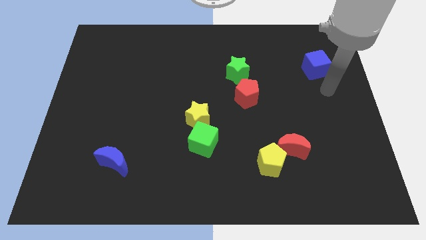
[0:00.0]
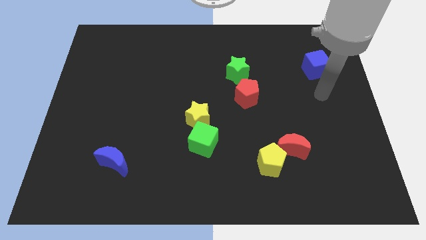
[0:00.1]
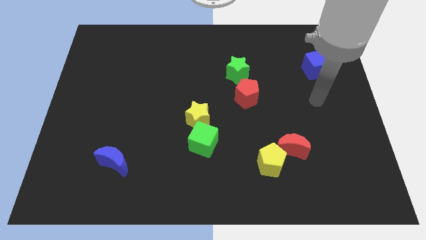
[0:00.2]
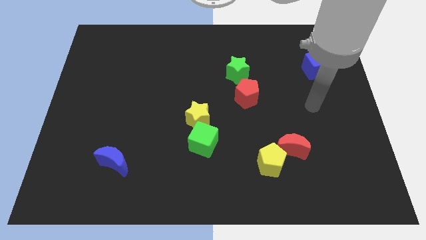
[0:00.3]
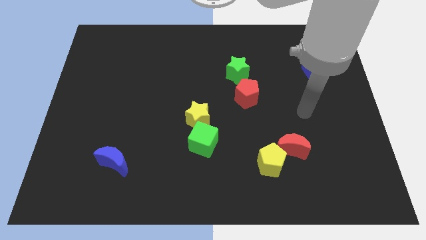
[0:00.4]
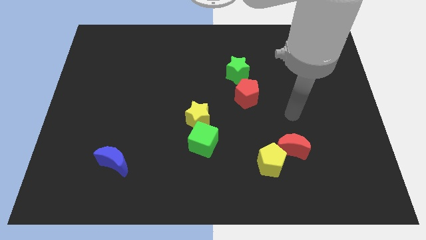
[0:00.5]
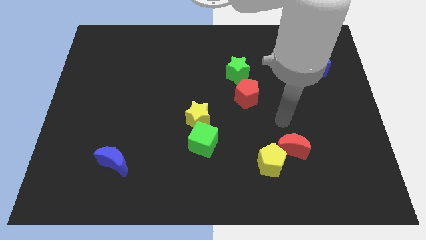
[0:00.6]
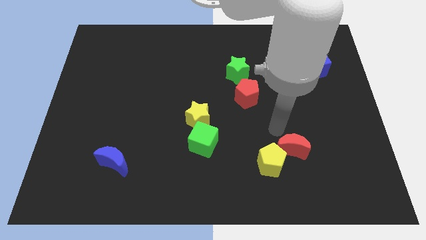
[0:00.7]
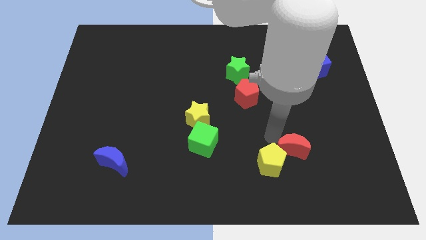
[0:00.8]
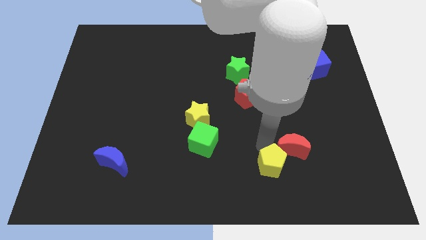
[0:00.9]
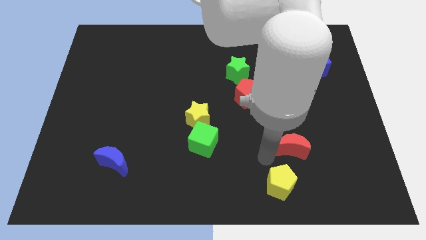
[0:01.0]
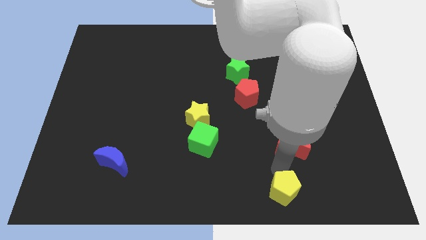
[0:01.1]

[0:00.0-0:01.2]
separate the red moon from the yellow pentagon

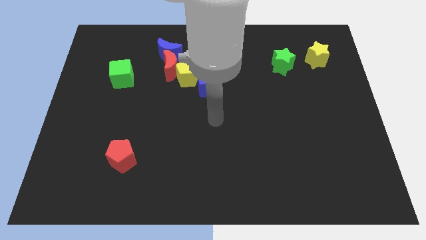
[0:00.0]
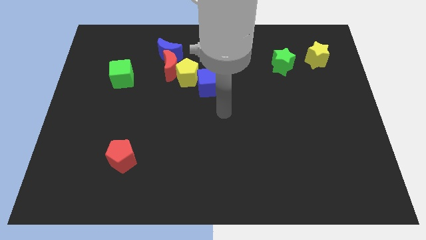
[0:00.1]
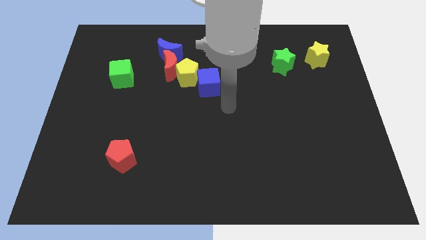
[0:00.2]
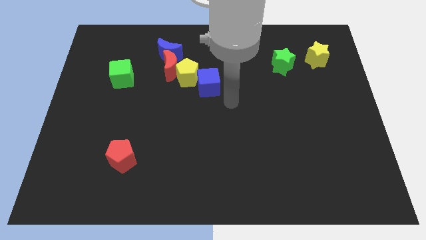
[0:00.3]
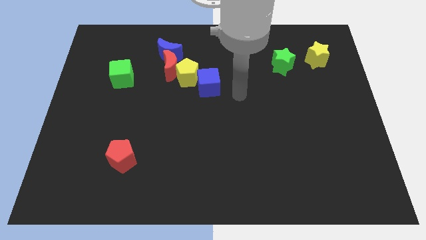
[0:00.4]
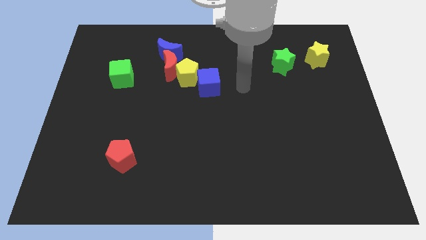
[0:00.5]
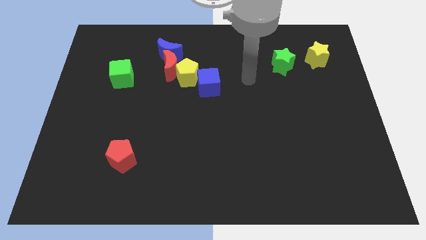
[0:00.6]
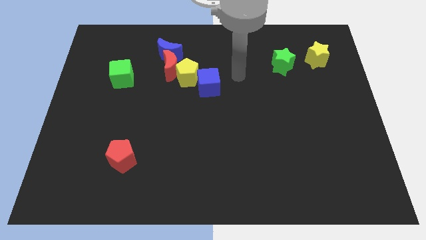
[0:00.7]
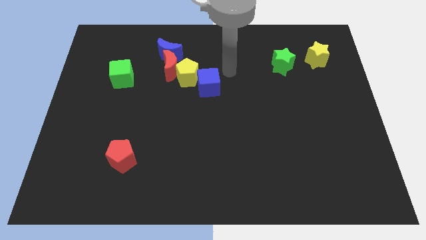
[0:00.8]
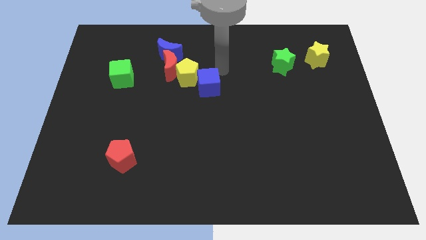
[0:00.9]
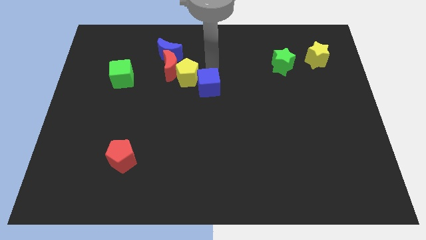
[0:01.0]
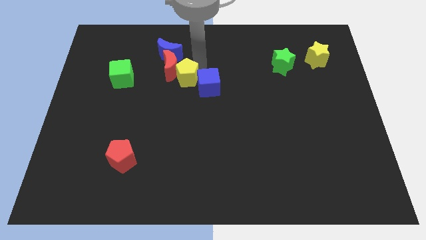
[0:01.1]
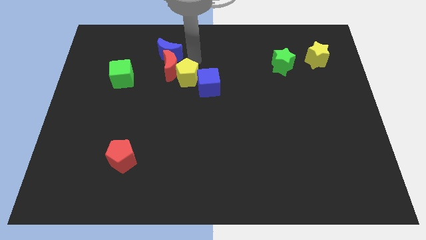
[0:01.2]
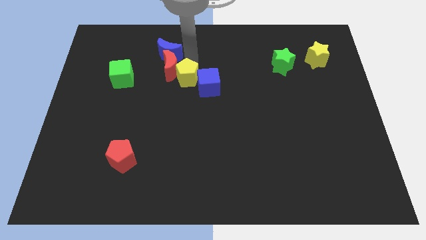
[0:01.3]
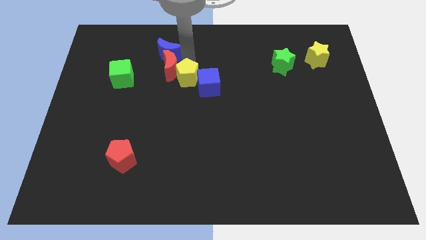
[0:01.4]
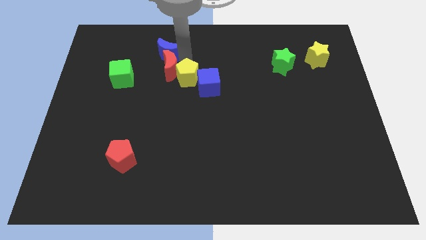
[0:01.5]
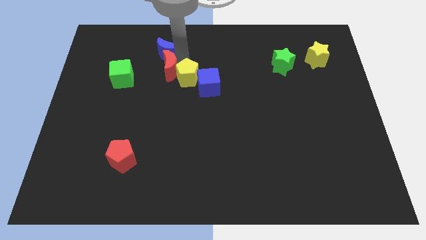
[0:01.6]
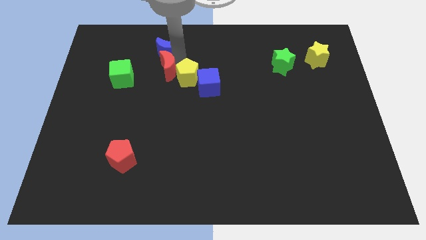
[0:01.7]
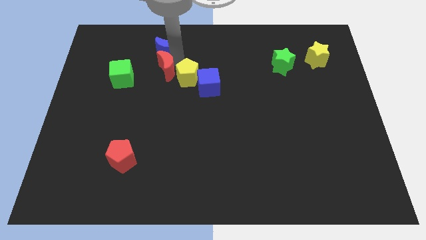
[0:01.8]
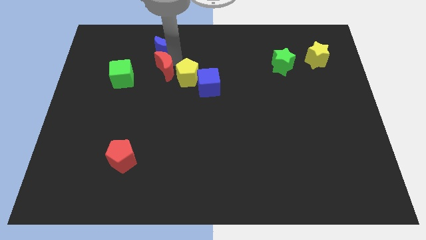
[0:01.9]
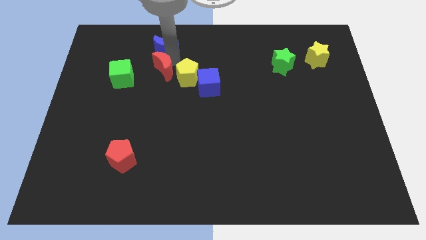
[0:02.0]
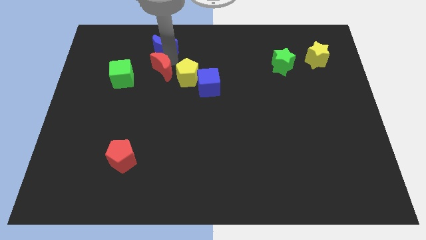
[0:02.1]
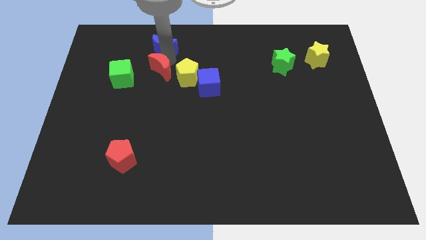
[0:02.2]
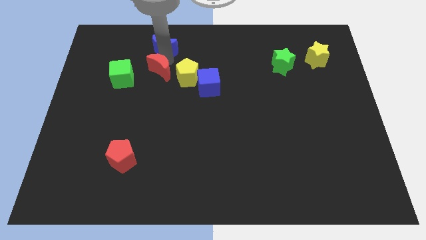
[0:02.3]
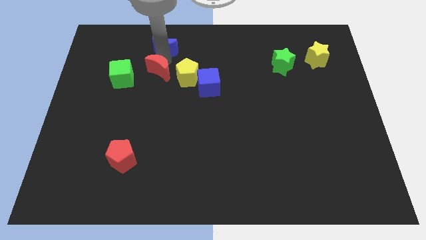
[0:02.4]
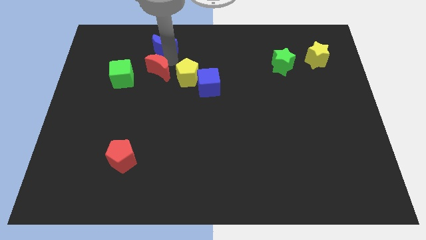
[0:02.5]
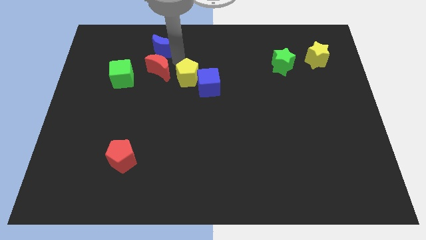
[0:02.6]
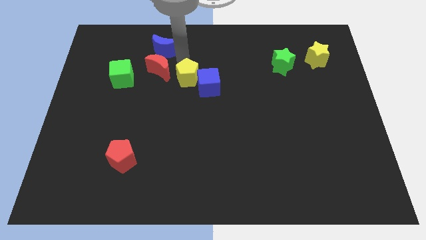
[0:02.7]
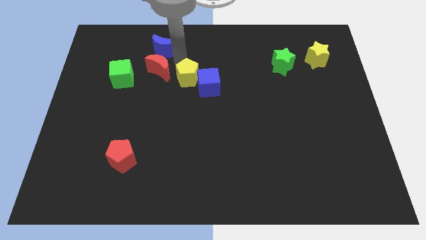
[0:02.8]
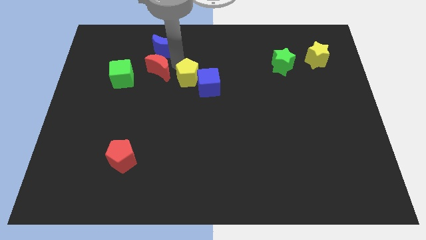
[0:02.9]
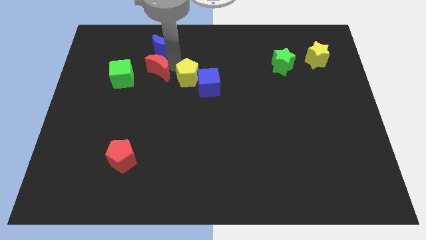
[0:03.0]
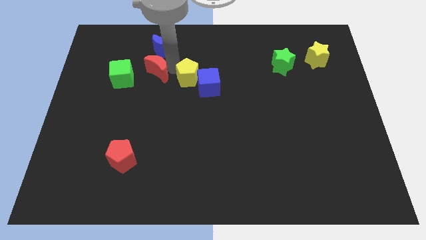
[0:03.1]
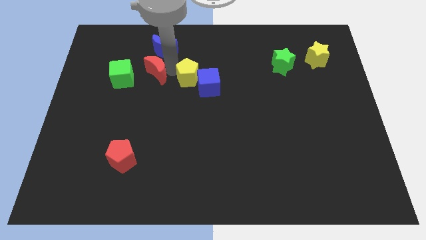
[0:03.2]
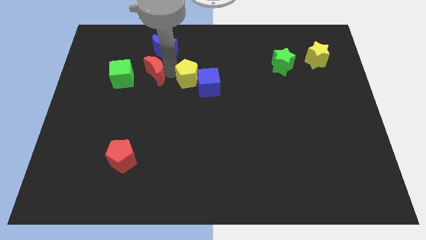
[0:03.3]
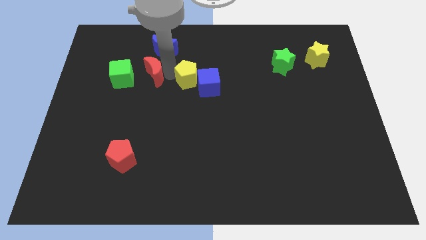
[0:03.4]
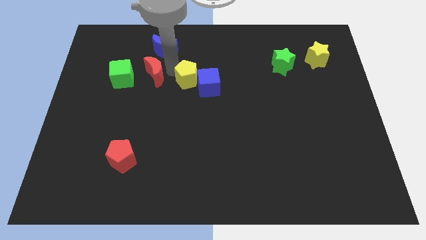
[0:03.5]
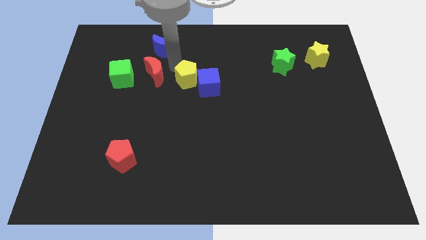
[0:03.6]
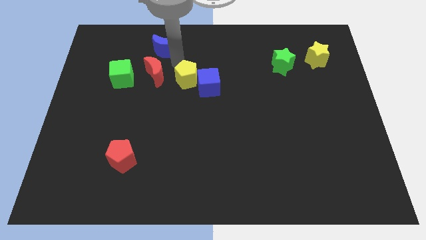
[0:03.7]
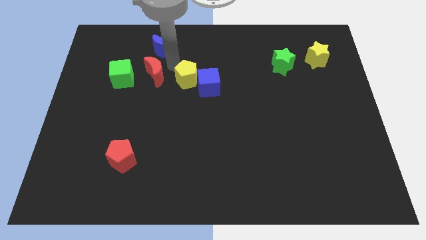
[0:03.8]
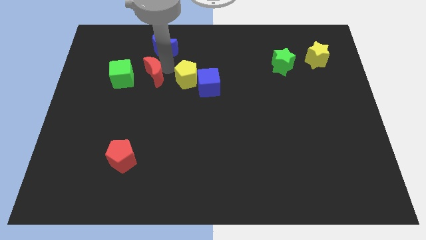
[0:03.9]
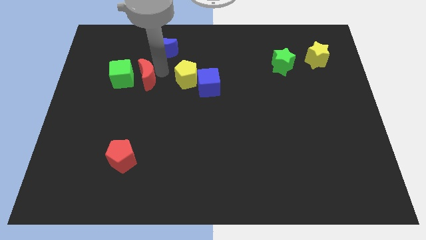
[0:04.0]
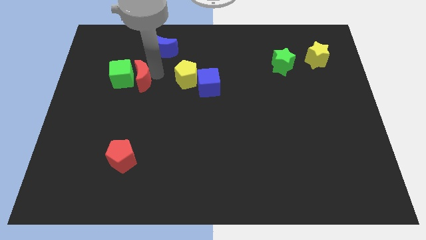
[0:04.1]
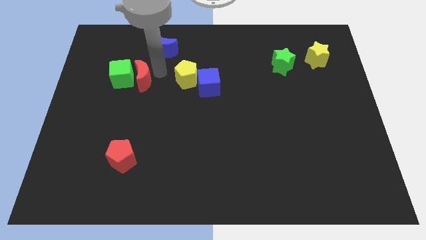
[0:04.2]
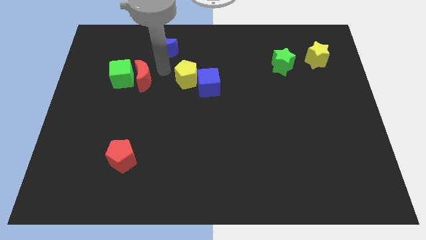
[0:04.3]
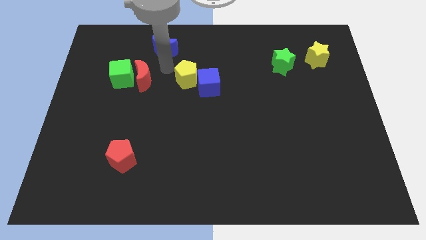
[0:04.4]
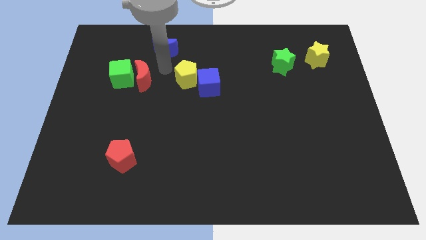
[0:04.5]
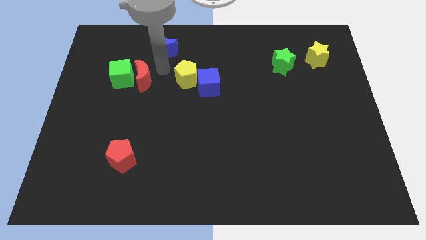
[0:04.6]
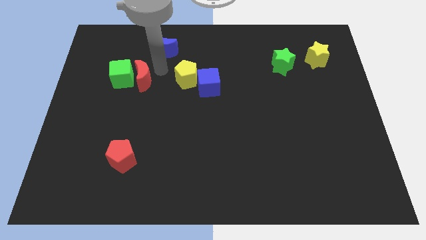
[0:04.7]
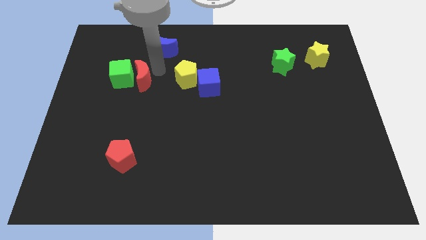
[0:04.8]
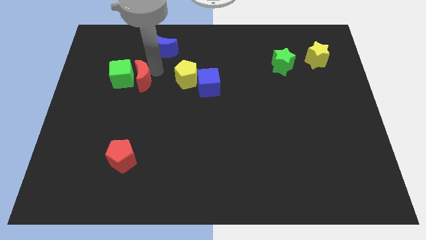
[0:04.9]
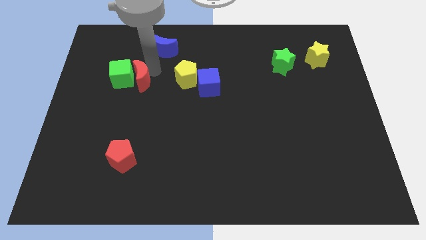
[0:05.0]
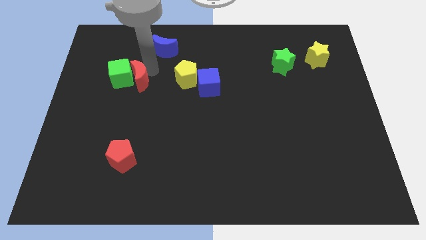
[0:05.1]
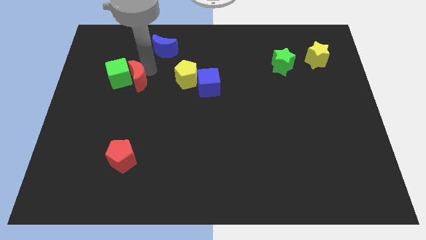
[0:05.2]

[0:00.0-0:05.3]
separate the red moon from the blue moon and yellow pentagon

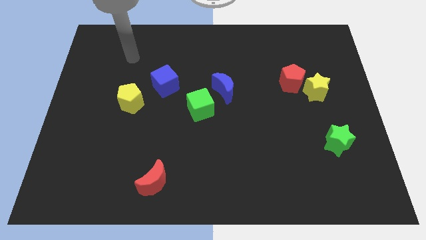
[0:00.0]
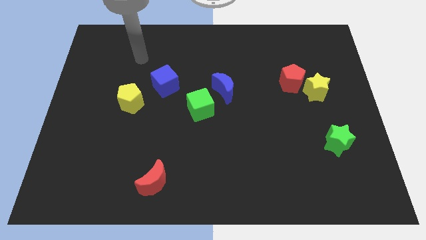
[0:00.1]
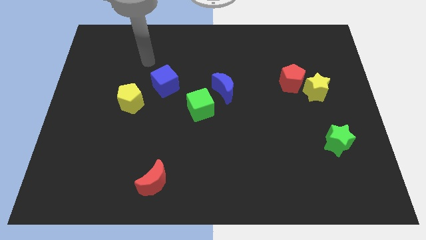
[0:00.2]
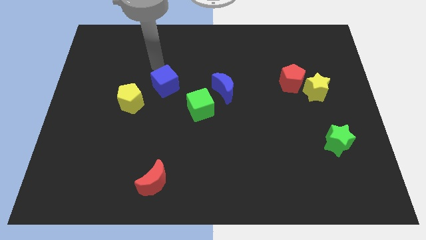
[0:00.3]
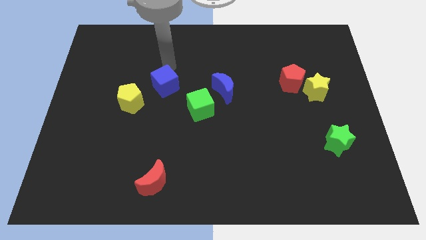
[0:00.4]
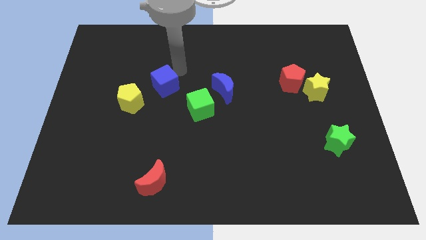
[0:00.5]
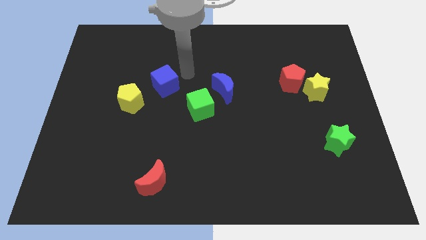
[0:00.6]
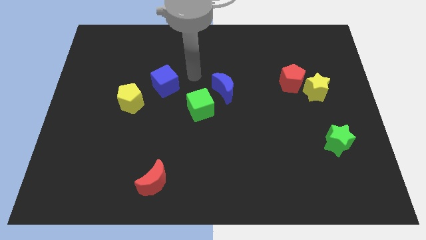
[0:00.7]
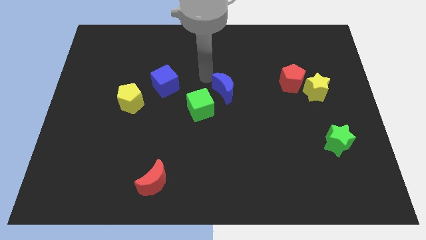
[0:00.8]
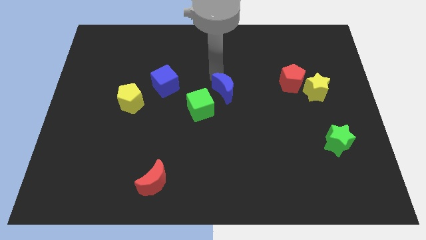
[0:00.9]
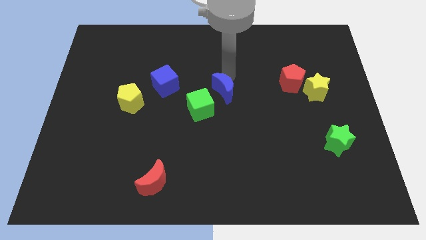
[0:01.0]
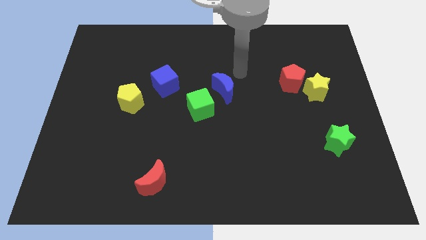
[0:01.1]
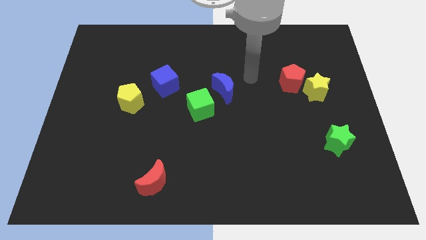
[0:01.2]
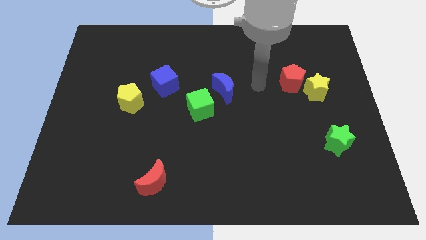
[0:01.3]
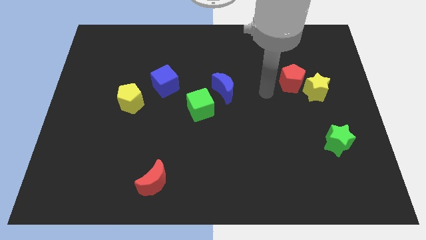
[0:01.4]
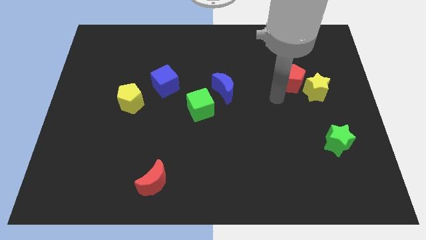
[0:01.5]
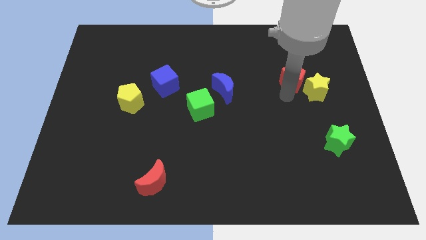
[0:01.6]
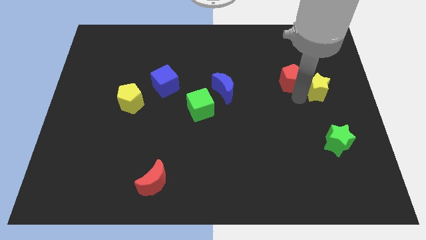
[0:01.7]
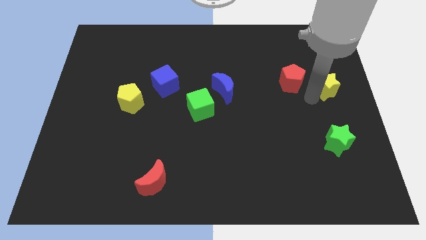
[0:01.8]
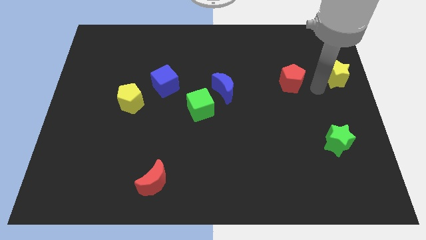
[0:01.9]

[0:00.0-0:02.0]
separate the red pentagon from the yellow star

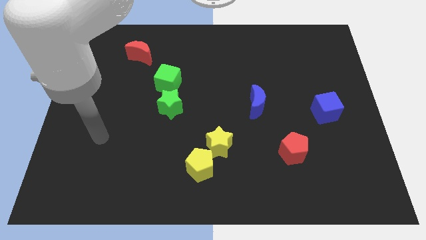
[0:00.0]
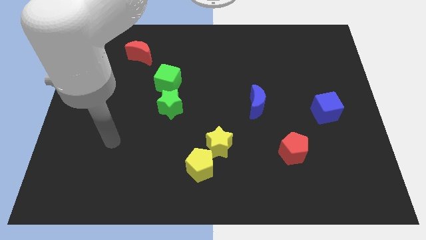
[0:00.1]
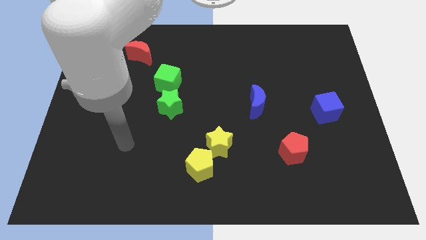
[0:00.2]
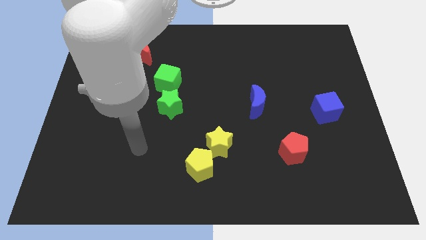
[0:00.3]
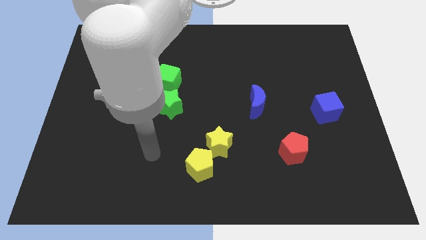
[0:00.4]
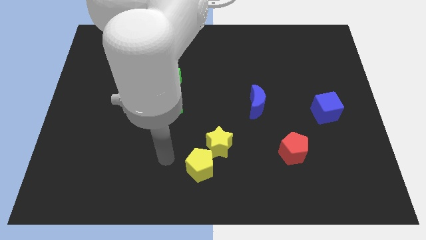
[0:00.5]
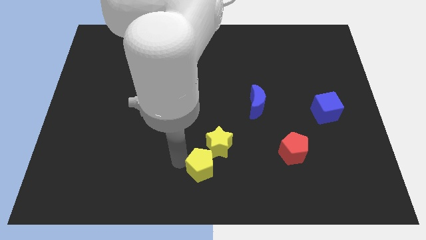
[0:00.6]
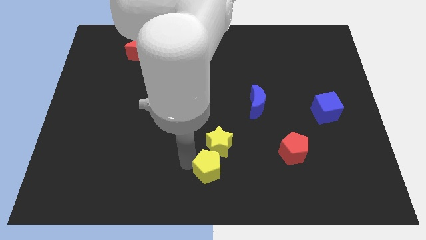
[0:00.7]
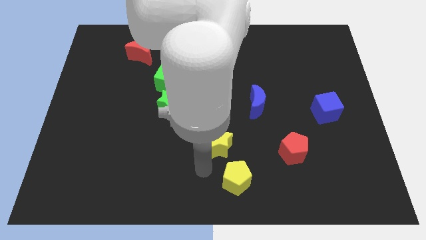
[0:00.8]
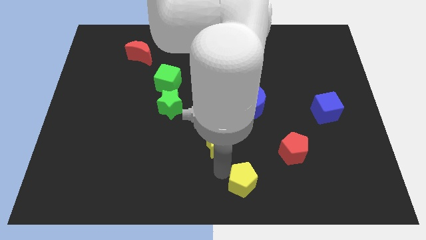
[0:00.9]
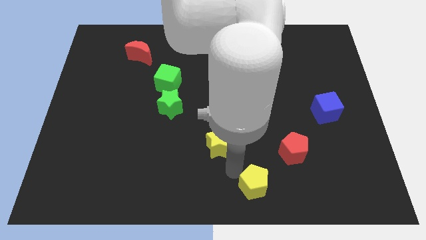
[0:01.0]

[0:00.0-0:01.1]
separate the yellow star from the yellow pentagon
